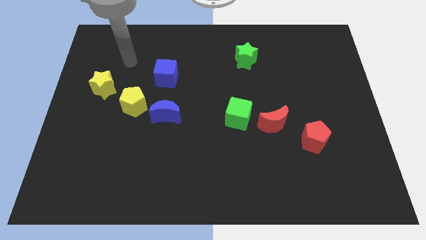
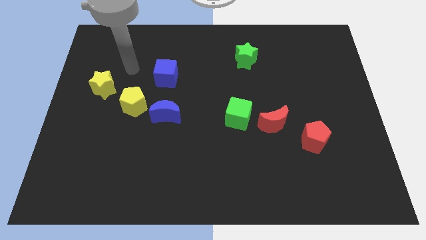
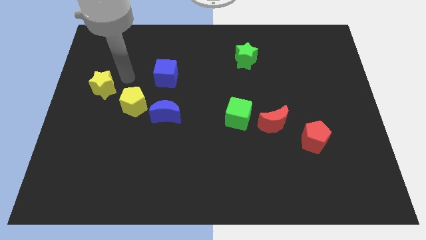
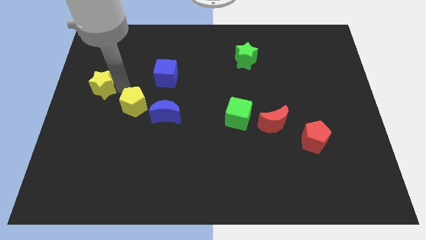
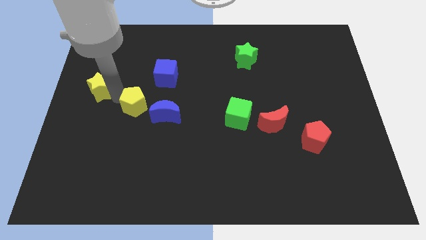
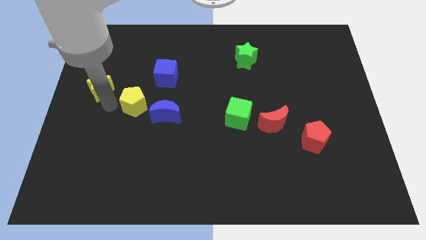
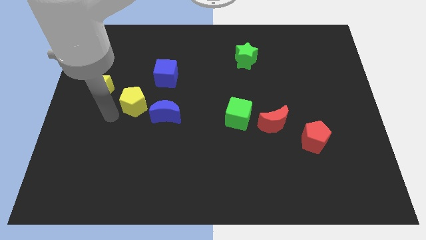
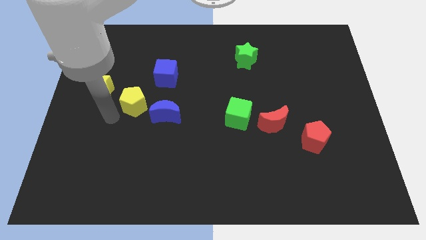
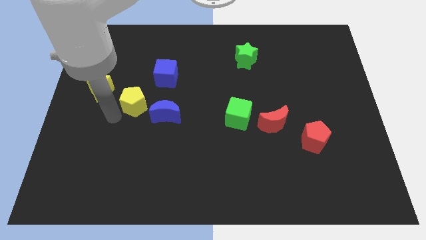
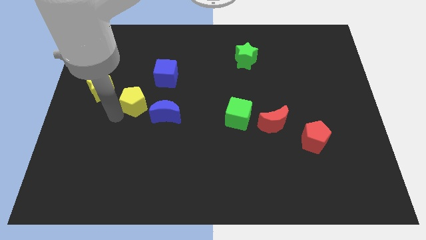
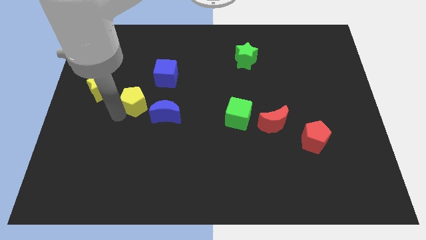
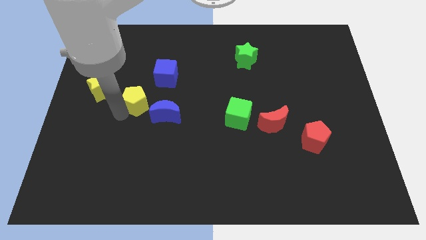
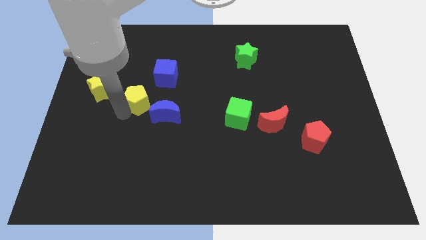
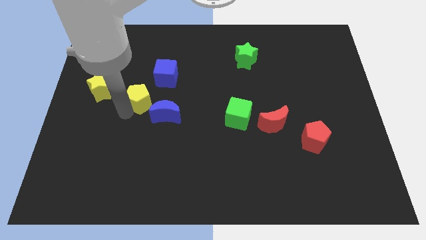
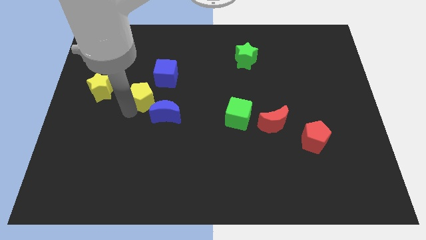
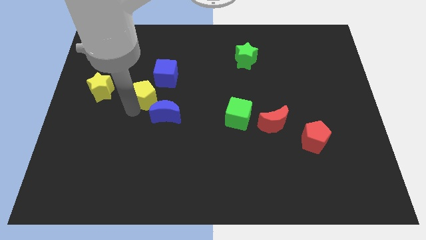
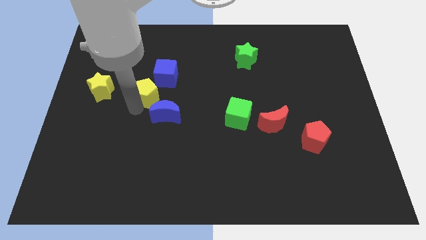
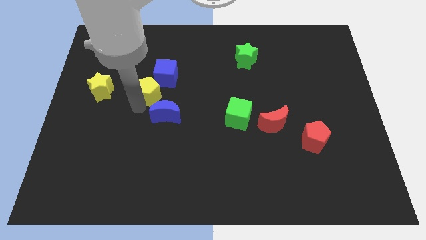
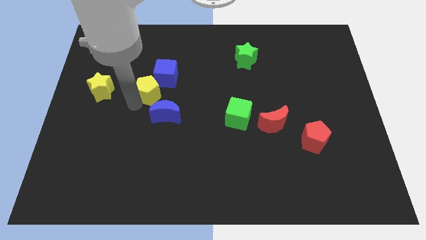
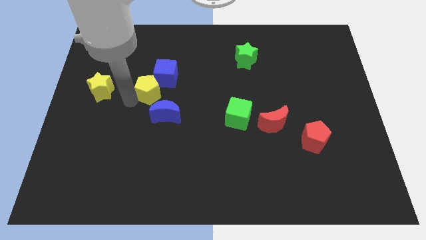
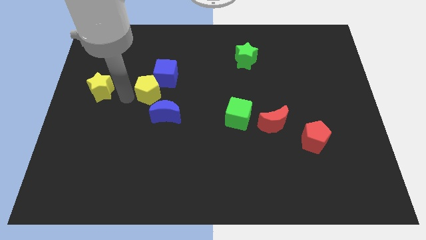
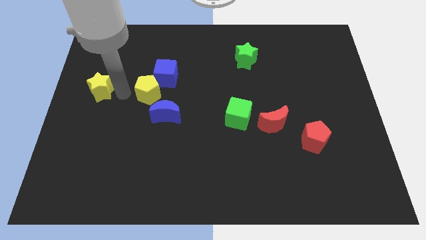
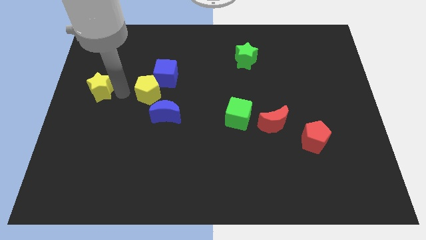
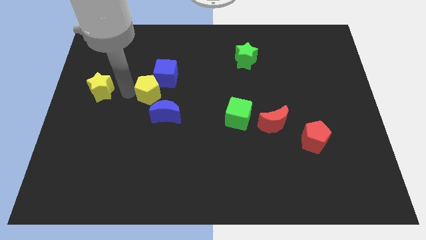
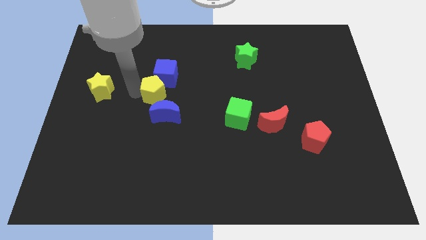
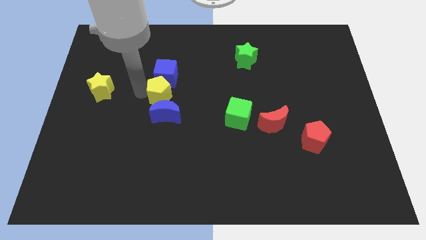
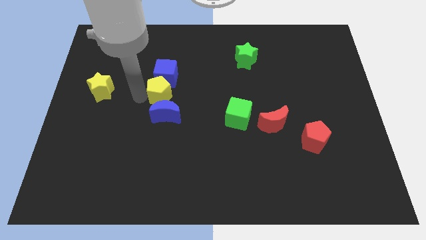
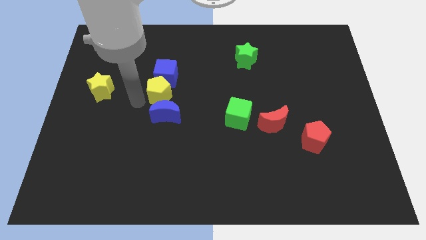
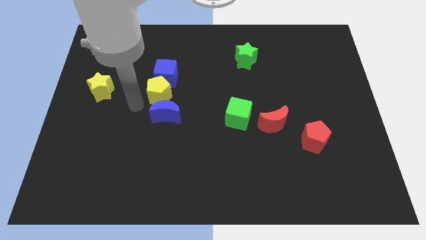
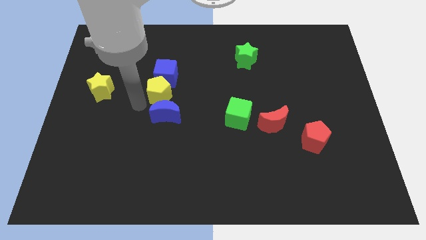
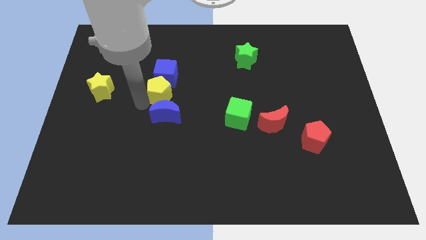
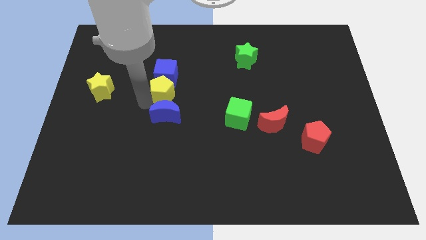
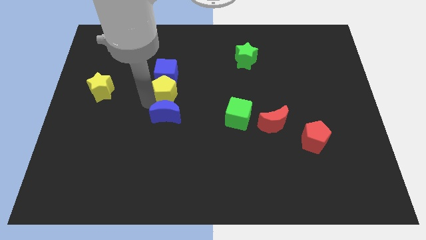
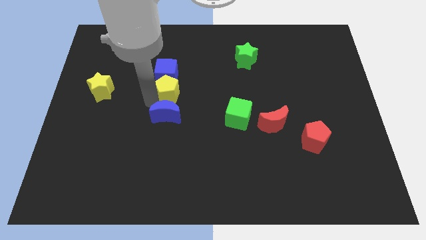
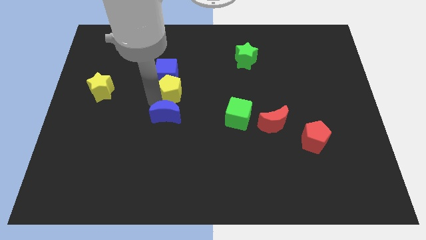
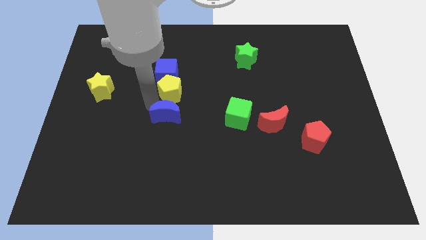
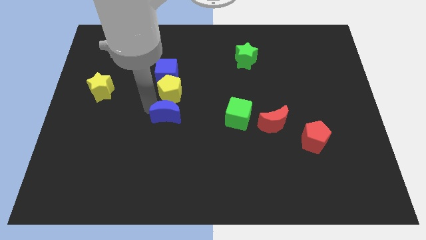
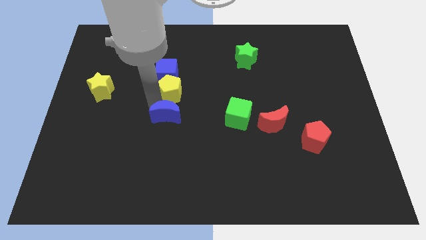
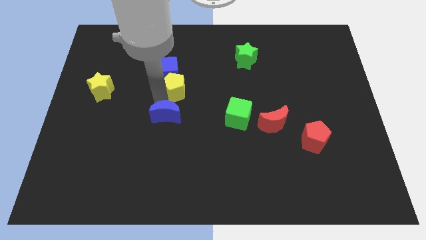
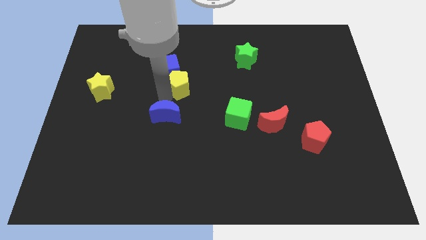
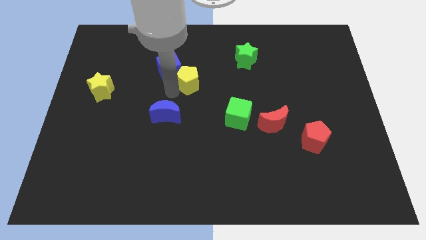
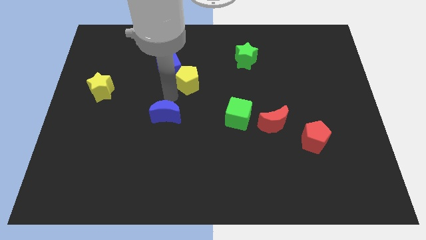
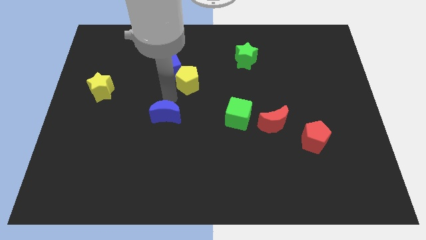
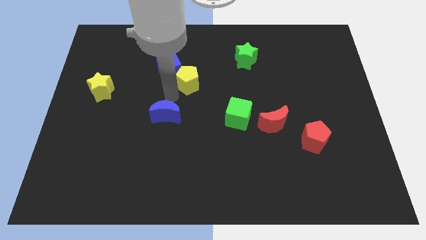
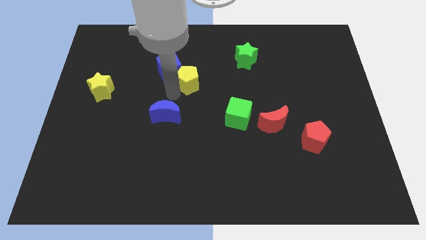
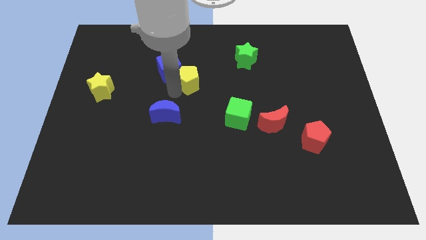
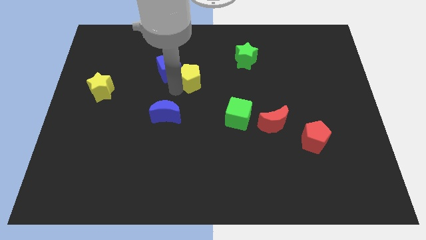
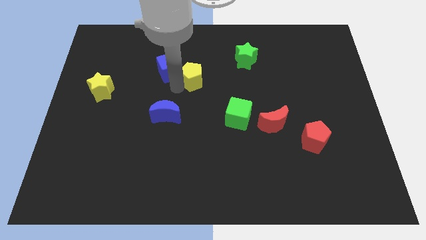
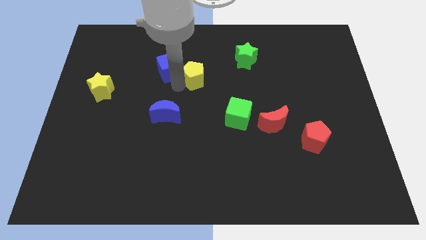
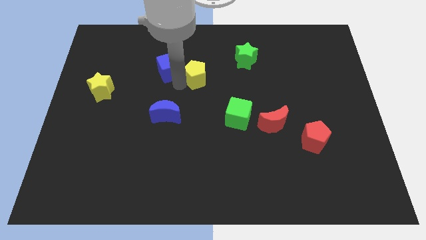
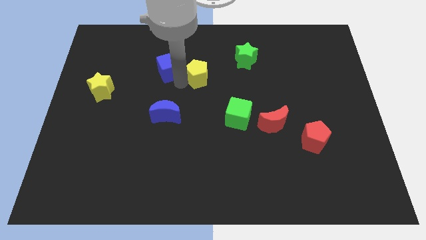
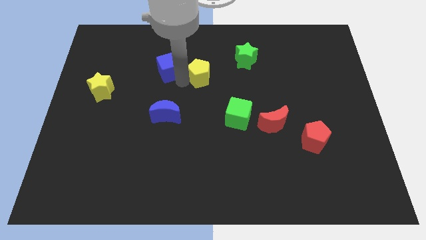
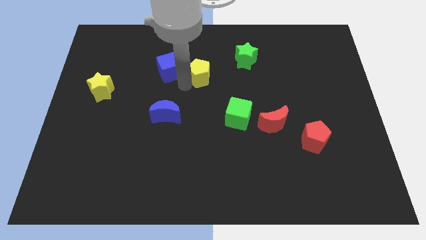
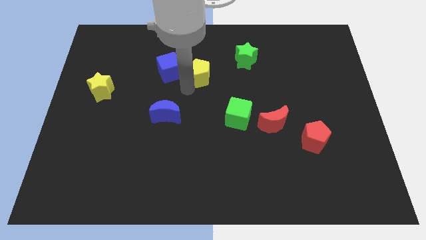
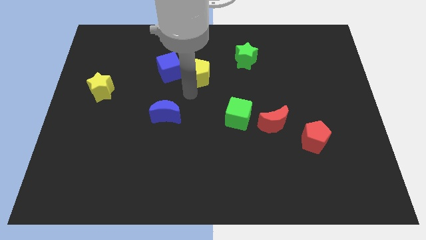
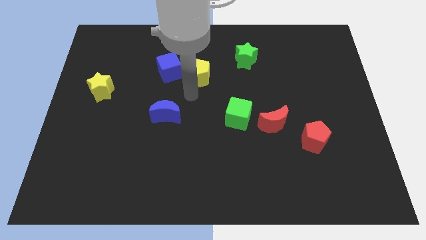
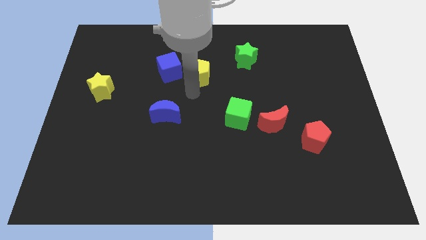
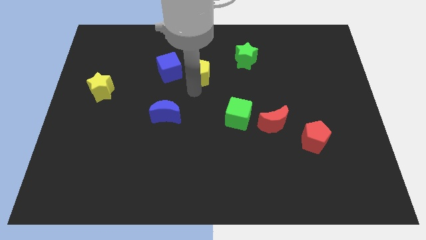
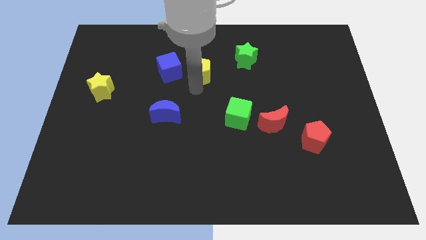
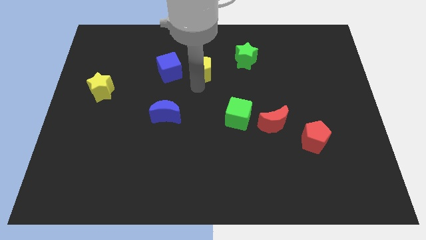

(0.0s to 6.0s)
push the yellow pentagon just left of the green star

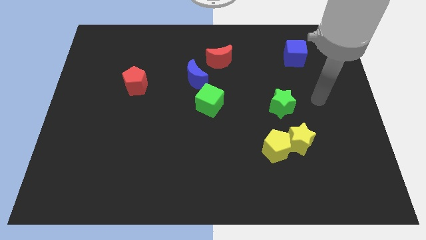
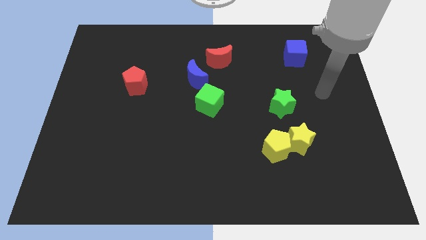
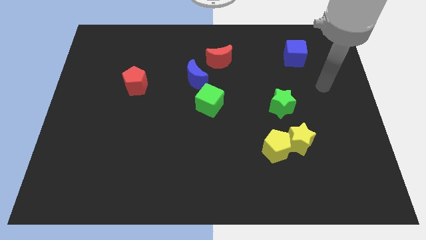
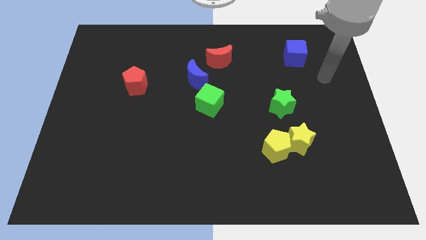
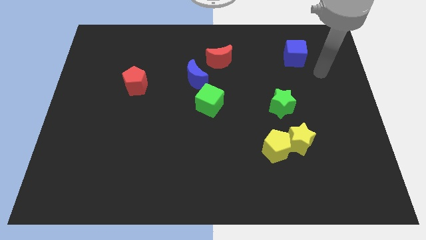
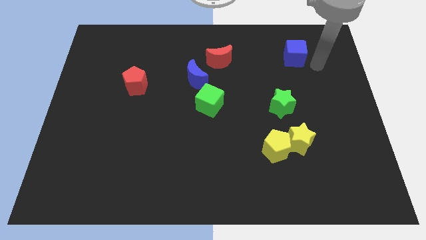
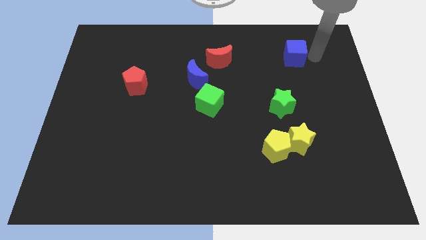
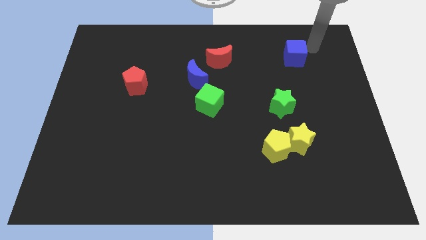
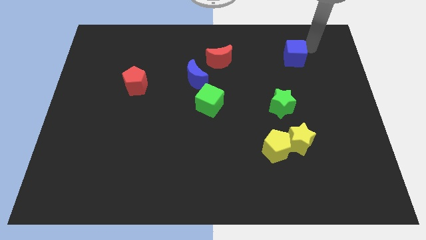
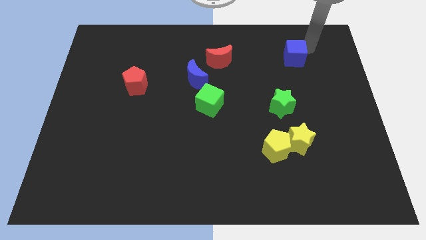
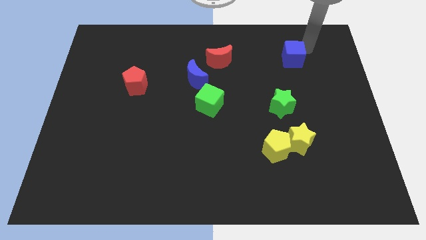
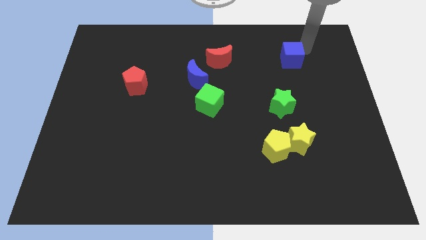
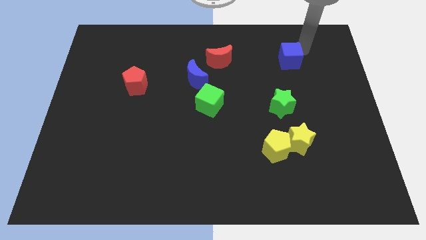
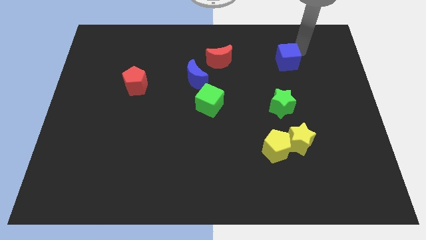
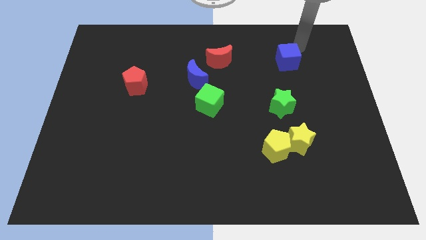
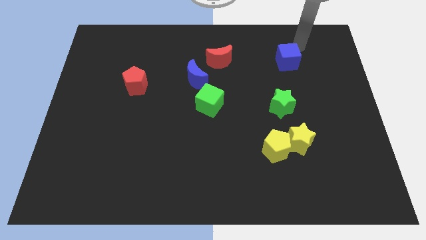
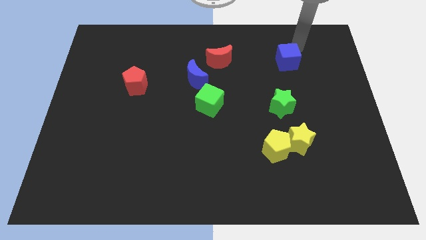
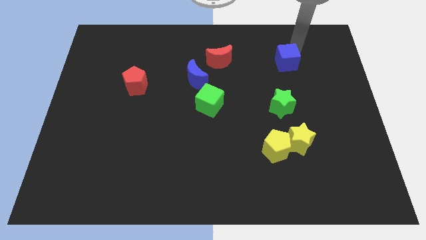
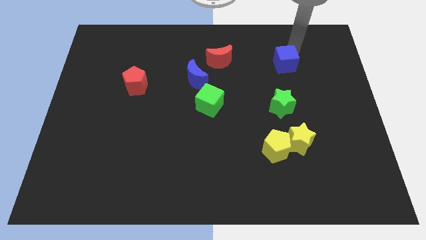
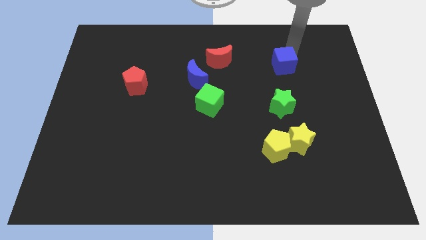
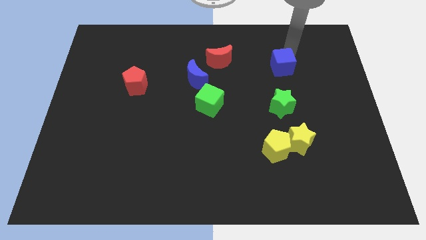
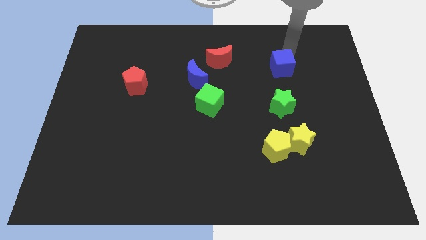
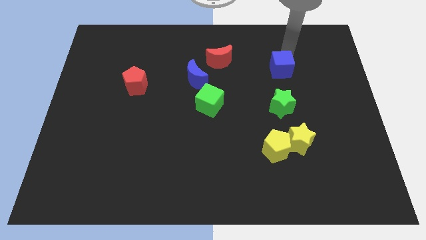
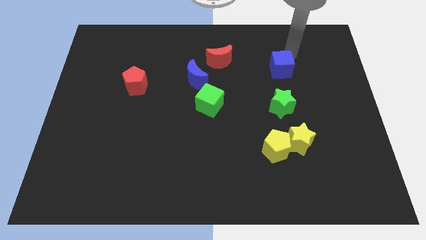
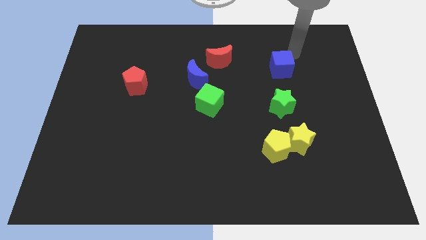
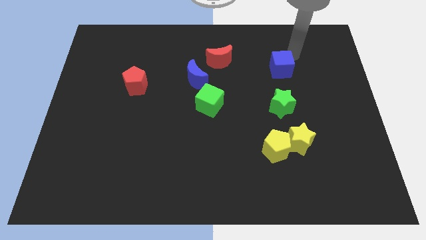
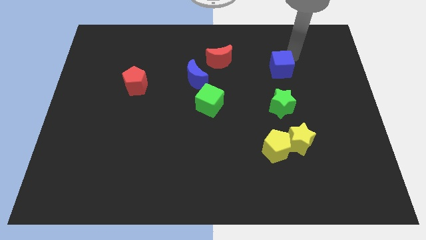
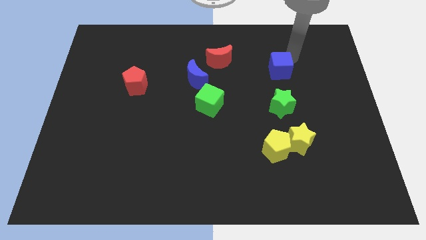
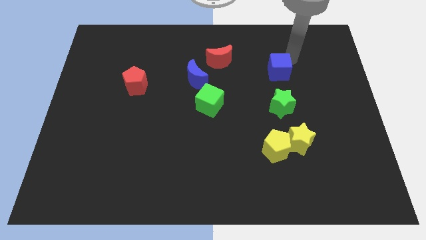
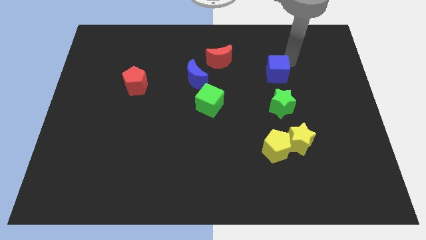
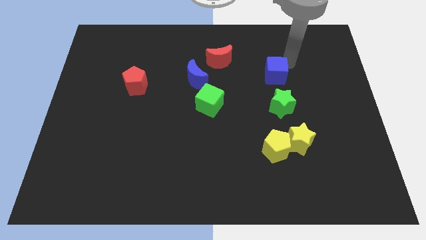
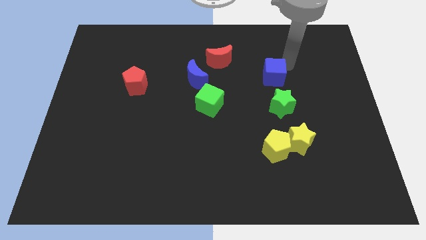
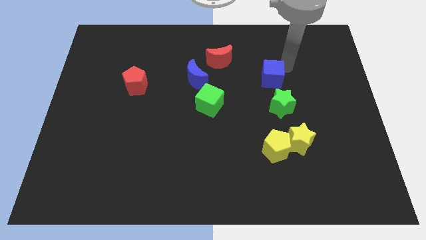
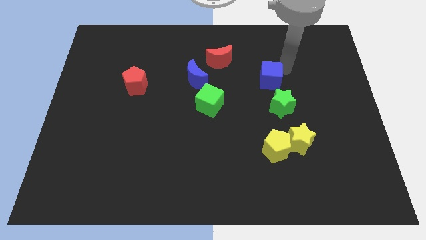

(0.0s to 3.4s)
put the blue cube to the top left of the green star
